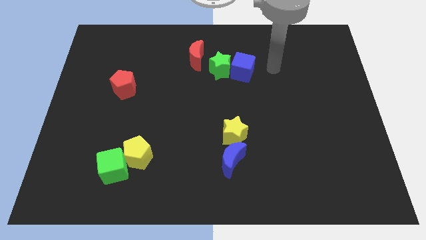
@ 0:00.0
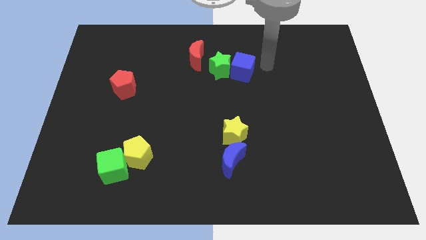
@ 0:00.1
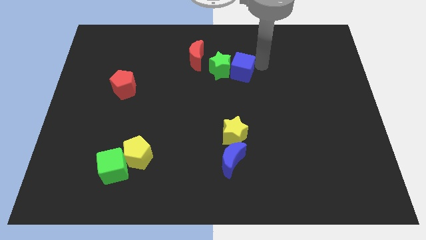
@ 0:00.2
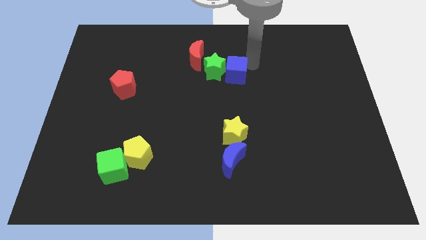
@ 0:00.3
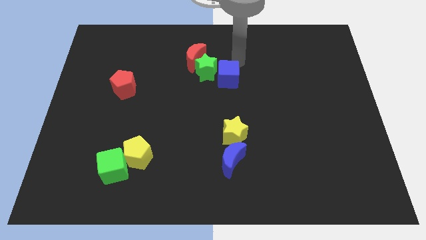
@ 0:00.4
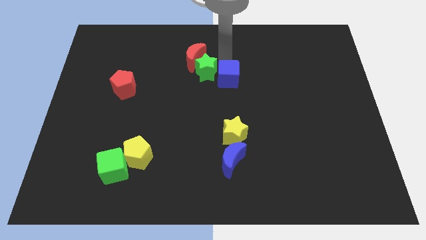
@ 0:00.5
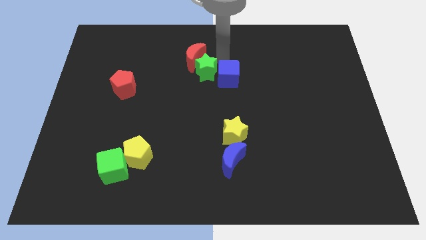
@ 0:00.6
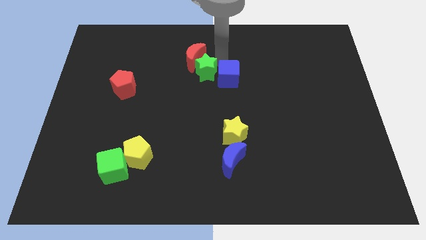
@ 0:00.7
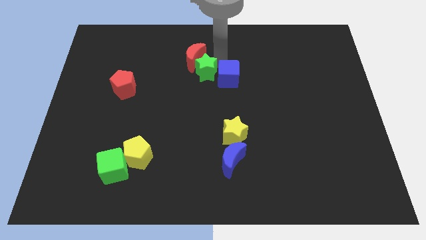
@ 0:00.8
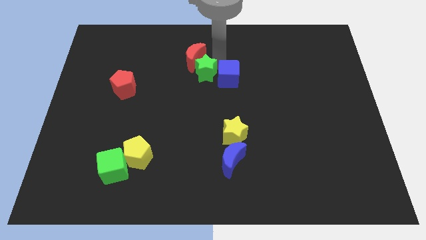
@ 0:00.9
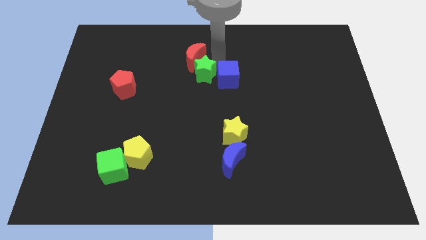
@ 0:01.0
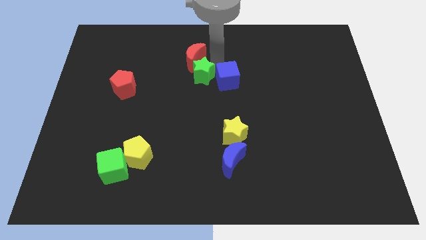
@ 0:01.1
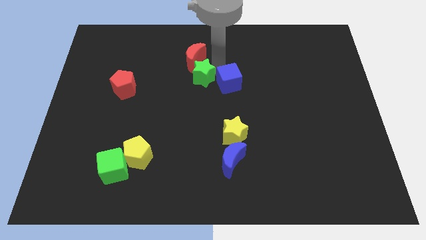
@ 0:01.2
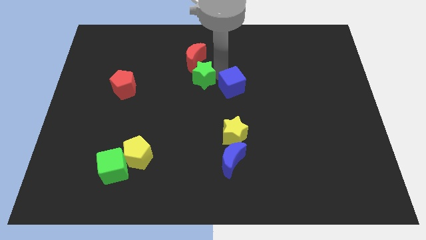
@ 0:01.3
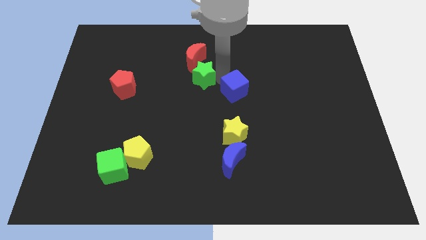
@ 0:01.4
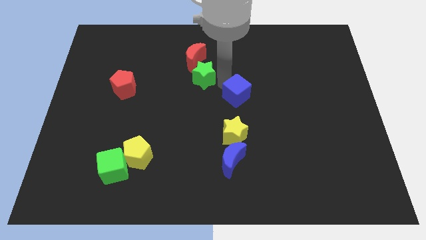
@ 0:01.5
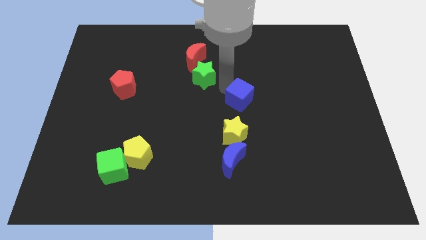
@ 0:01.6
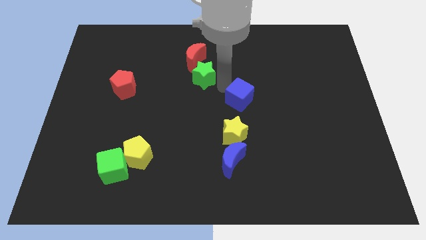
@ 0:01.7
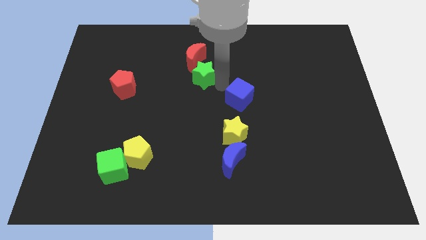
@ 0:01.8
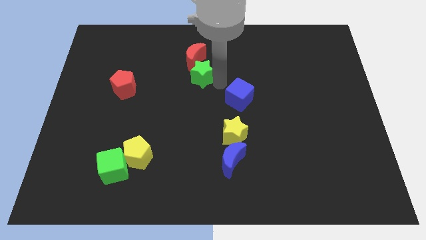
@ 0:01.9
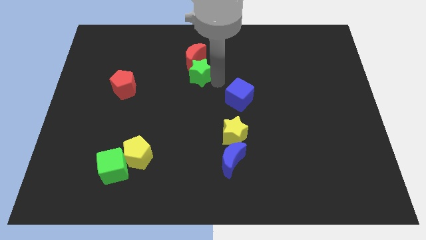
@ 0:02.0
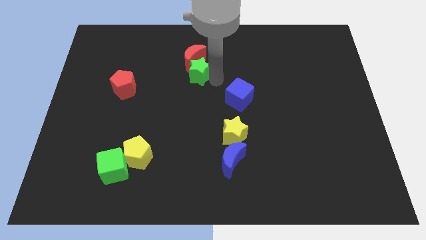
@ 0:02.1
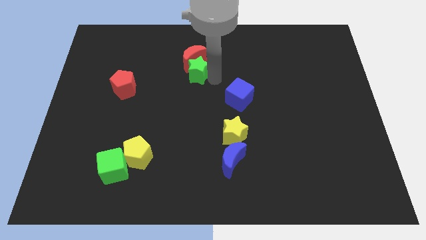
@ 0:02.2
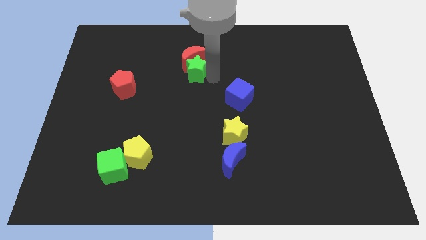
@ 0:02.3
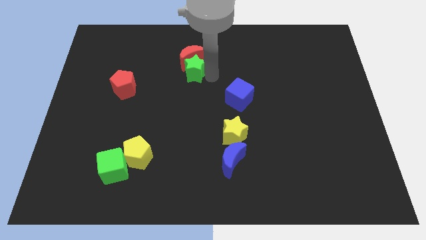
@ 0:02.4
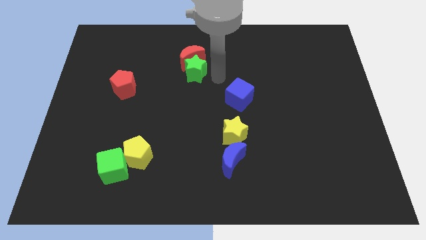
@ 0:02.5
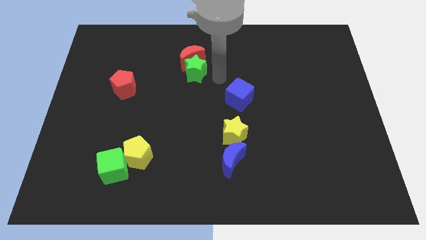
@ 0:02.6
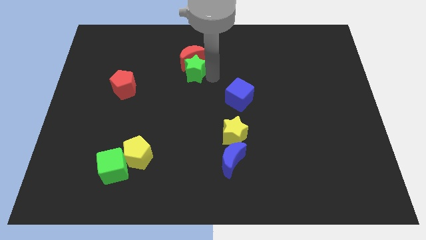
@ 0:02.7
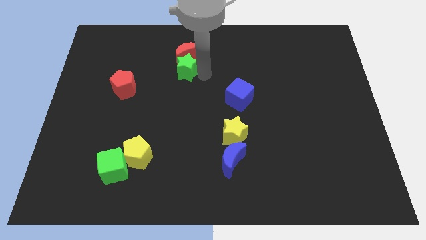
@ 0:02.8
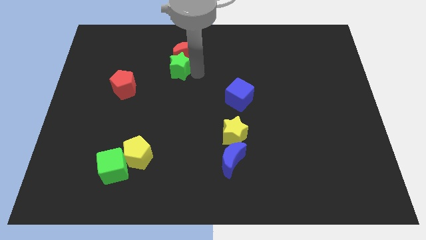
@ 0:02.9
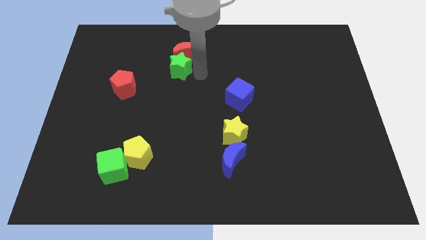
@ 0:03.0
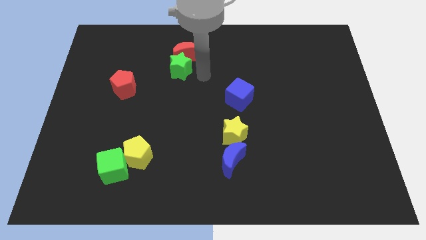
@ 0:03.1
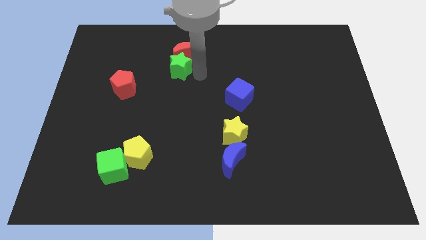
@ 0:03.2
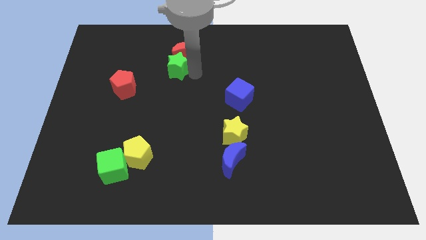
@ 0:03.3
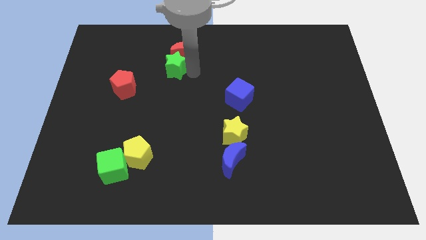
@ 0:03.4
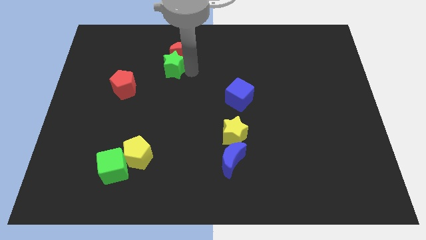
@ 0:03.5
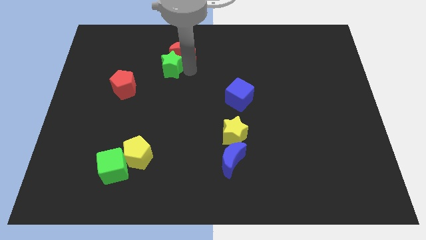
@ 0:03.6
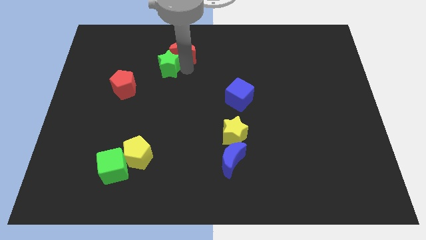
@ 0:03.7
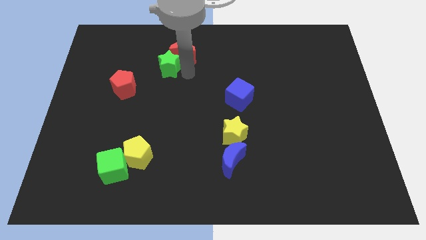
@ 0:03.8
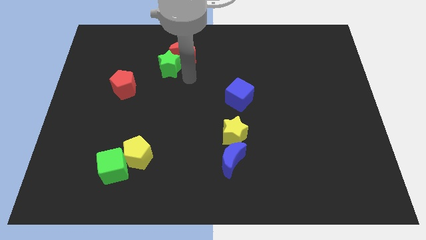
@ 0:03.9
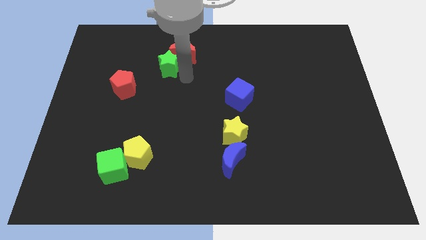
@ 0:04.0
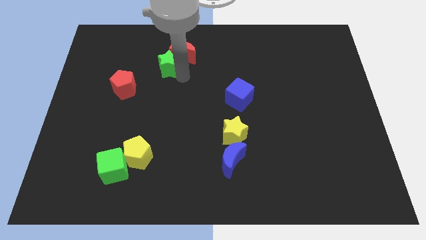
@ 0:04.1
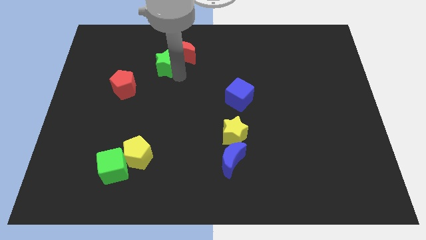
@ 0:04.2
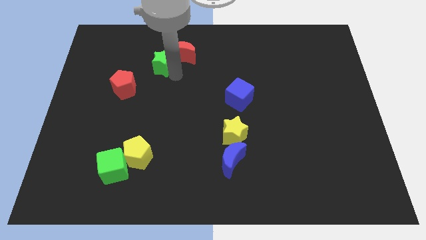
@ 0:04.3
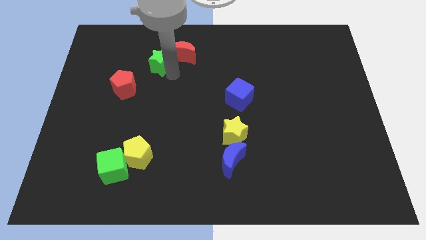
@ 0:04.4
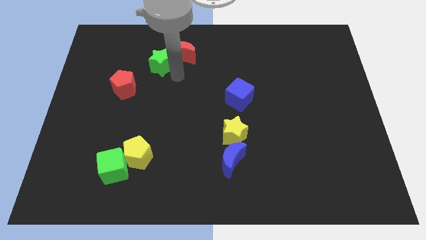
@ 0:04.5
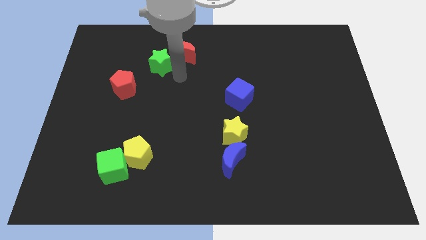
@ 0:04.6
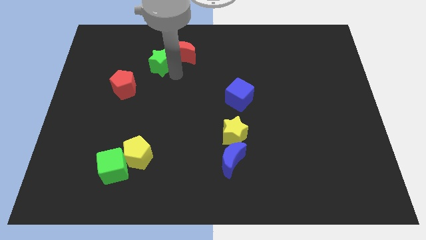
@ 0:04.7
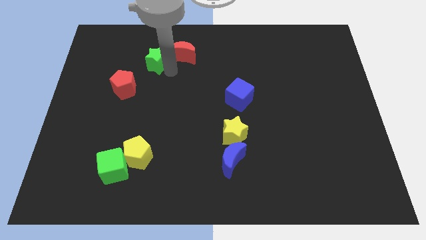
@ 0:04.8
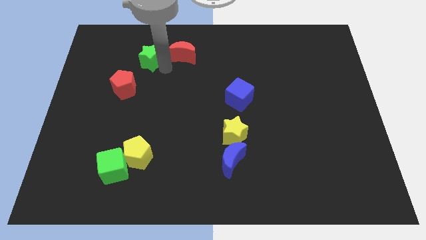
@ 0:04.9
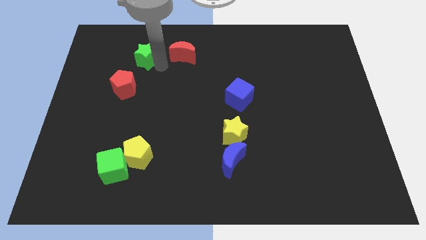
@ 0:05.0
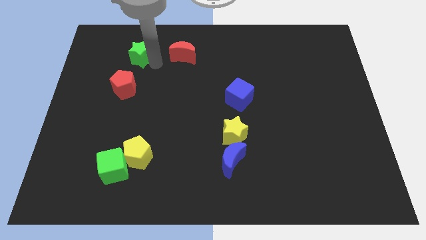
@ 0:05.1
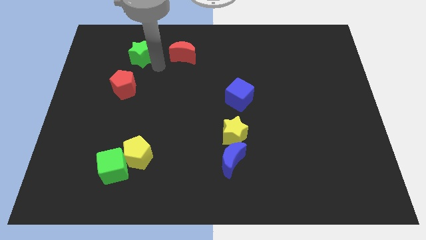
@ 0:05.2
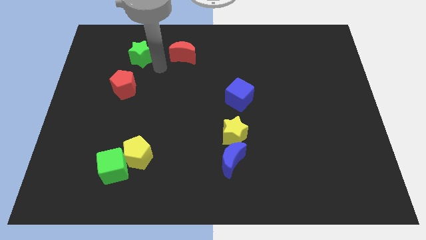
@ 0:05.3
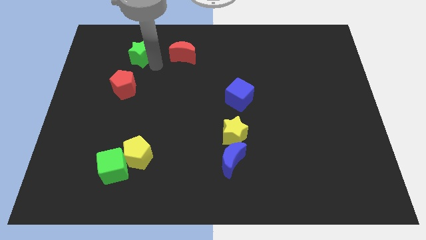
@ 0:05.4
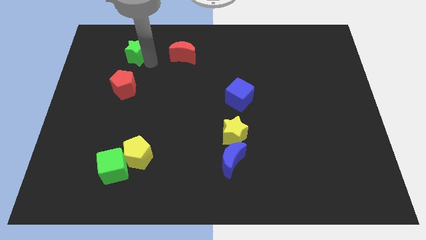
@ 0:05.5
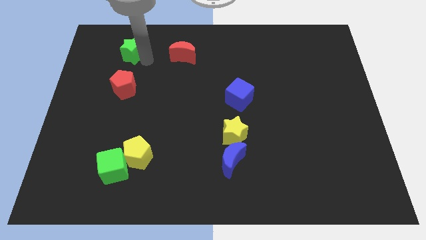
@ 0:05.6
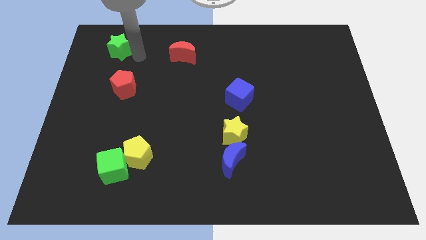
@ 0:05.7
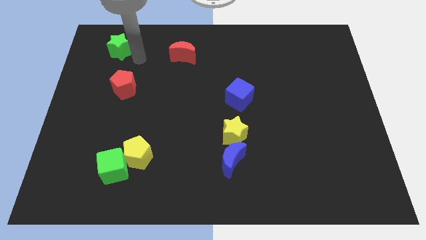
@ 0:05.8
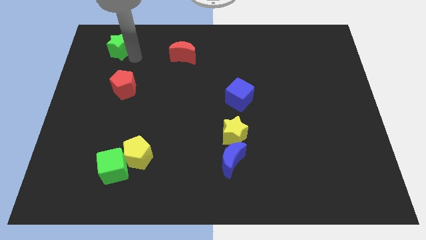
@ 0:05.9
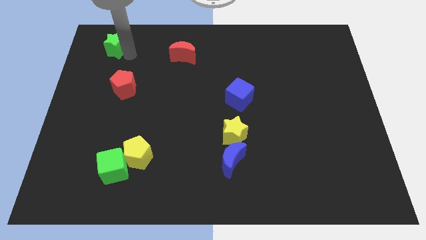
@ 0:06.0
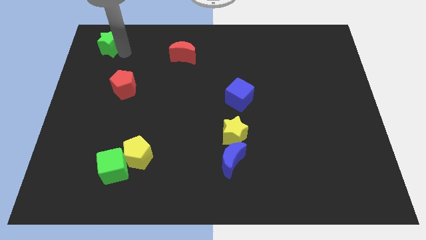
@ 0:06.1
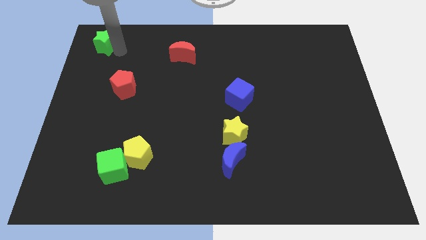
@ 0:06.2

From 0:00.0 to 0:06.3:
put the green star to the top left
